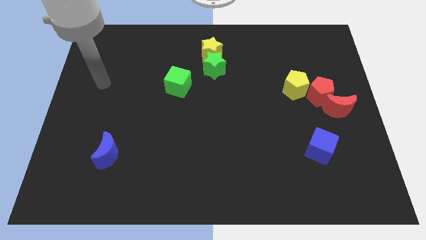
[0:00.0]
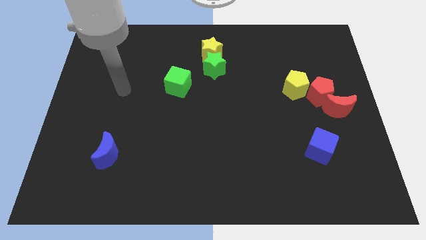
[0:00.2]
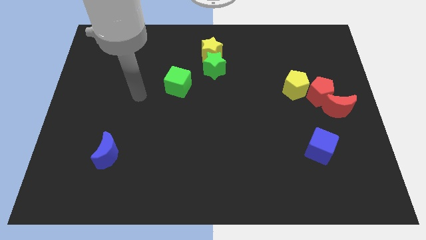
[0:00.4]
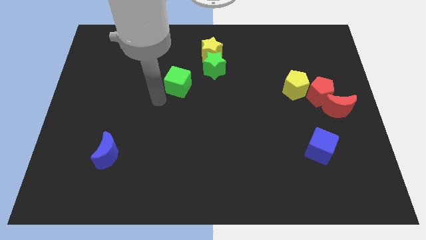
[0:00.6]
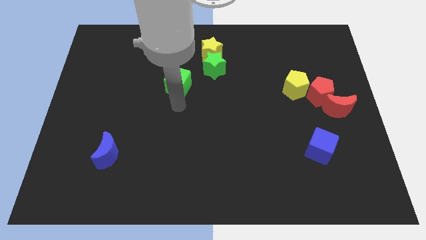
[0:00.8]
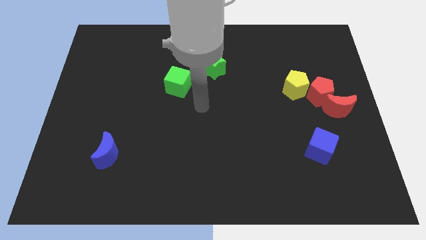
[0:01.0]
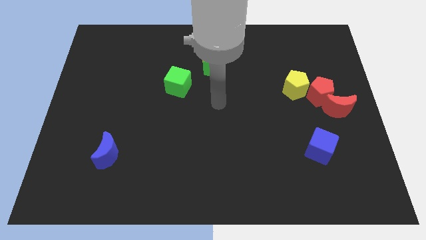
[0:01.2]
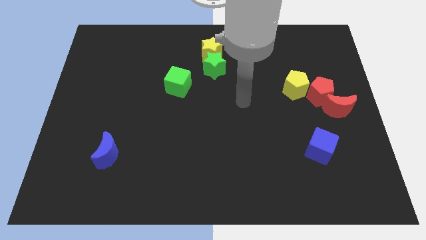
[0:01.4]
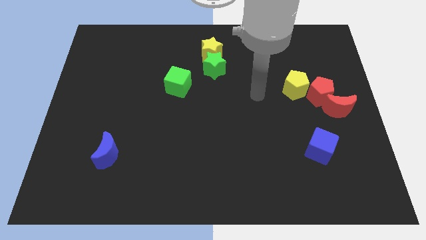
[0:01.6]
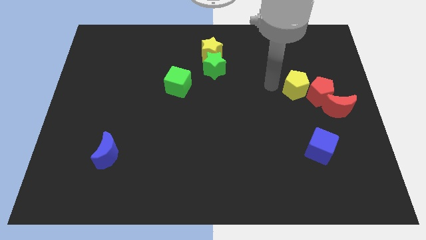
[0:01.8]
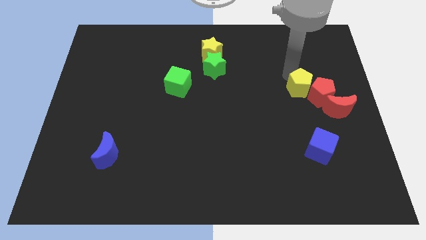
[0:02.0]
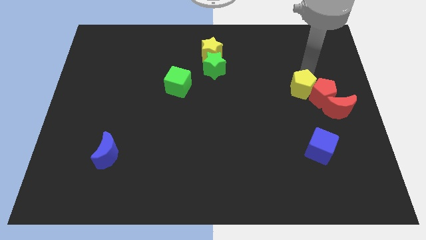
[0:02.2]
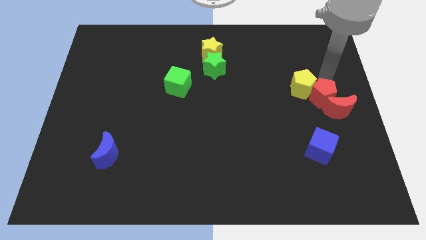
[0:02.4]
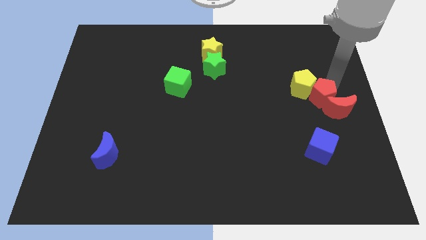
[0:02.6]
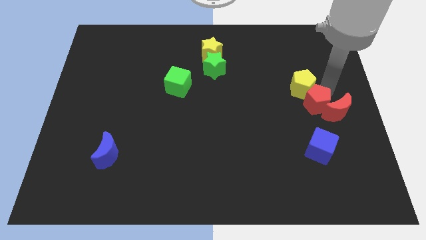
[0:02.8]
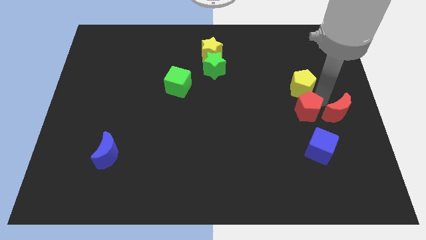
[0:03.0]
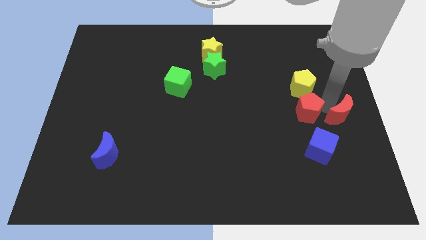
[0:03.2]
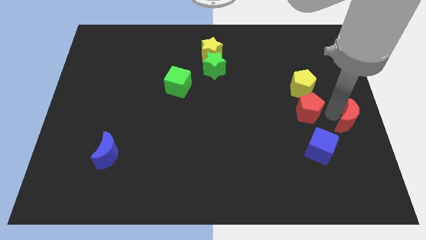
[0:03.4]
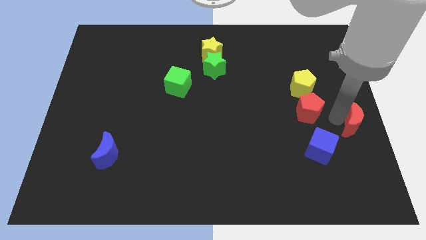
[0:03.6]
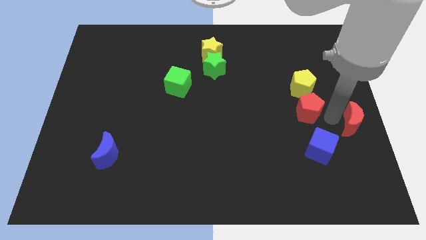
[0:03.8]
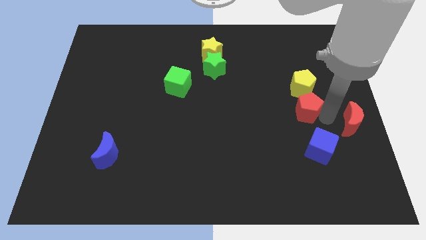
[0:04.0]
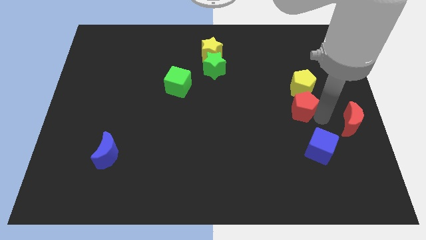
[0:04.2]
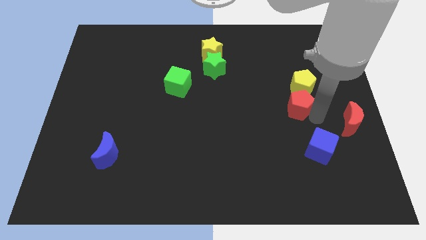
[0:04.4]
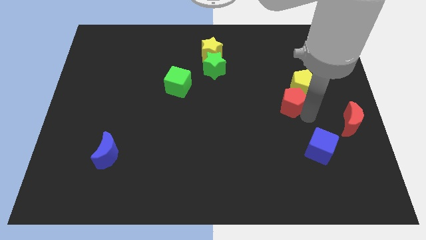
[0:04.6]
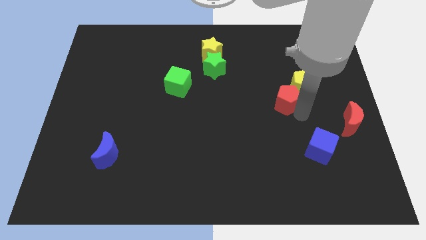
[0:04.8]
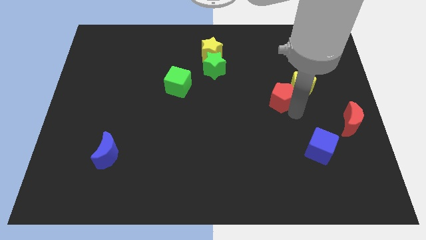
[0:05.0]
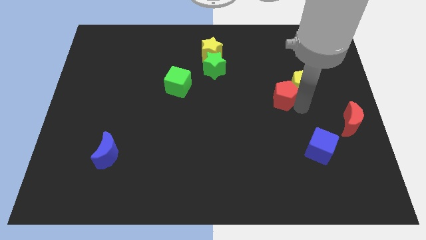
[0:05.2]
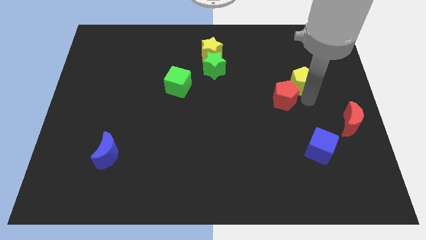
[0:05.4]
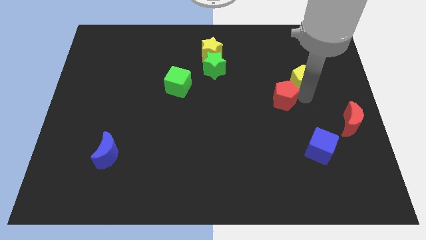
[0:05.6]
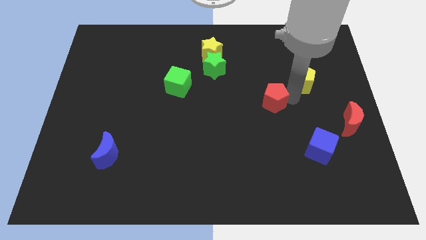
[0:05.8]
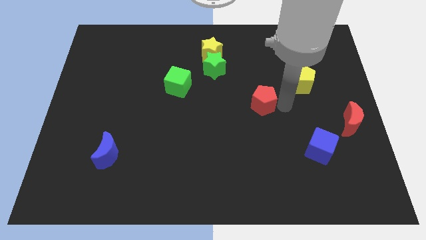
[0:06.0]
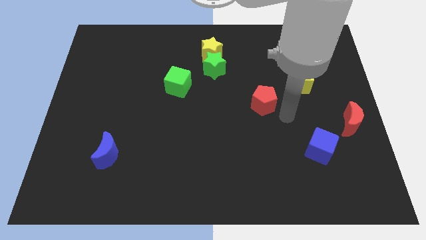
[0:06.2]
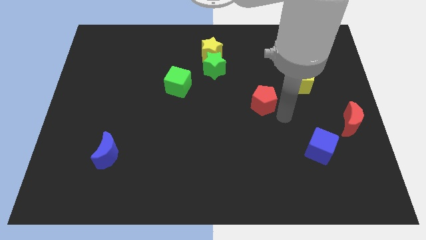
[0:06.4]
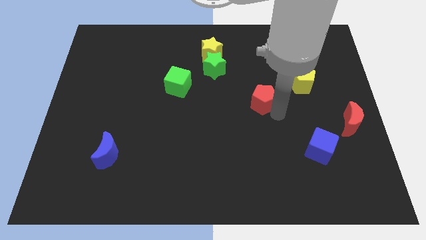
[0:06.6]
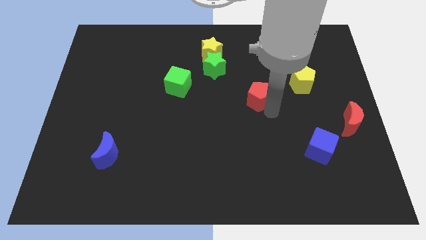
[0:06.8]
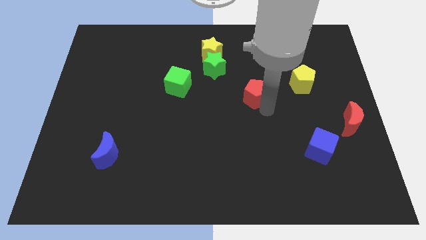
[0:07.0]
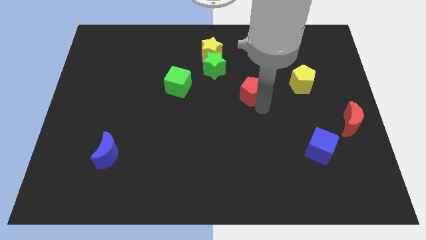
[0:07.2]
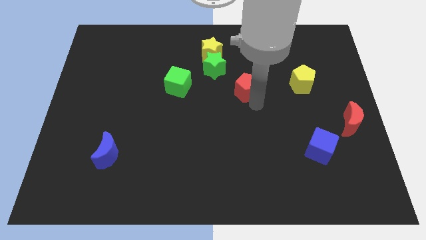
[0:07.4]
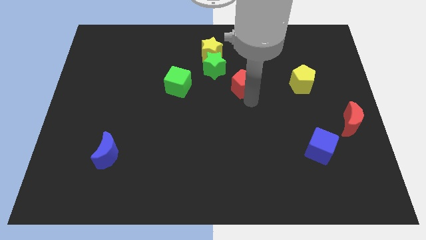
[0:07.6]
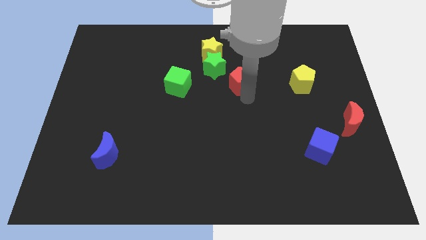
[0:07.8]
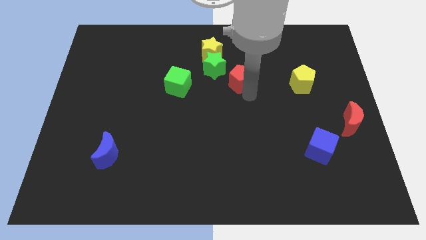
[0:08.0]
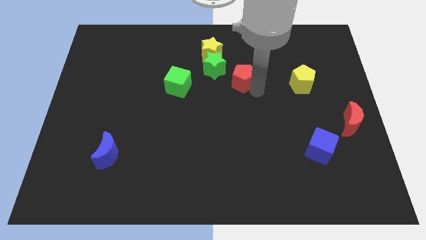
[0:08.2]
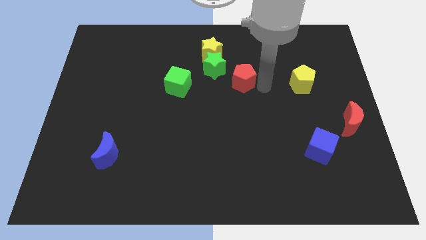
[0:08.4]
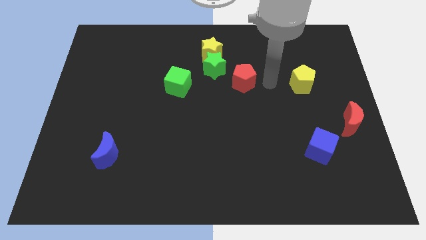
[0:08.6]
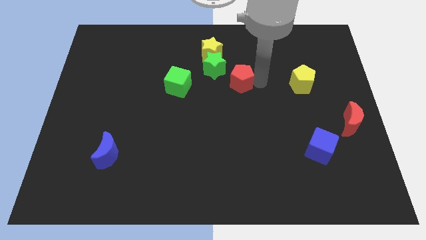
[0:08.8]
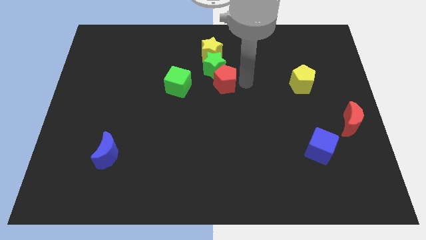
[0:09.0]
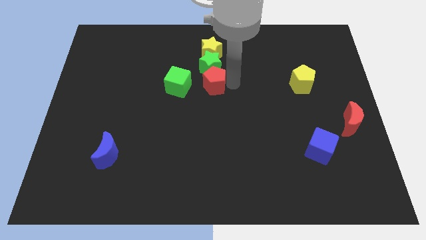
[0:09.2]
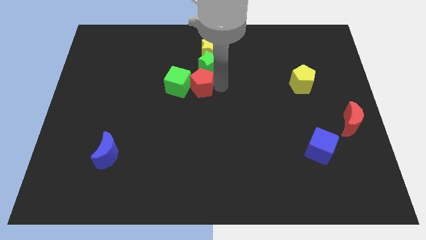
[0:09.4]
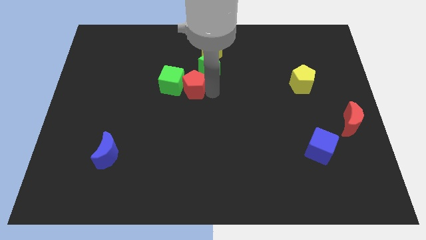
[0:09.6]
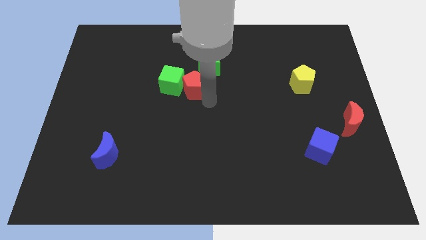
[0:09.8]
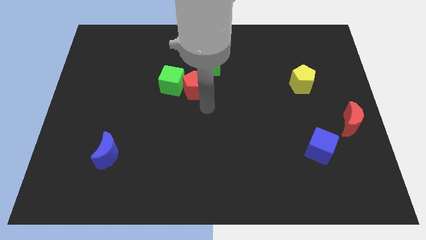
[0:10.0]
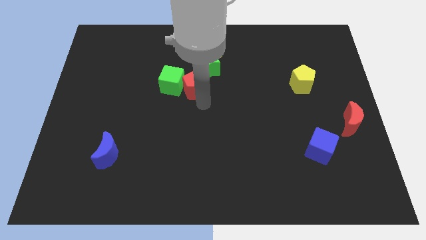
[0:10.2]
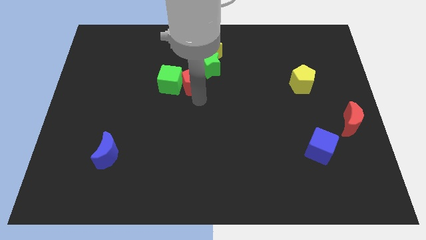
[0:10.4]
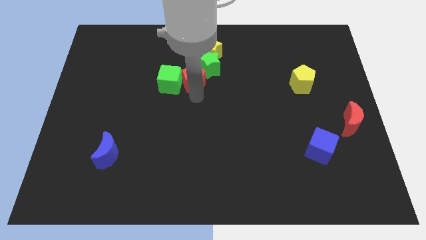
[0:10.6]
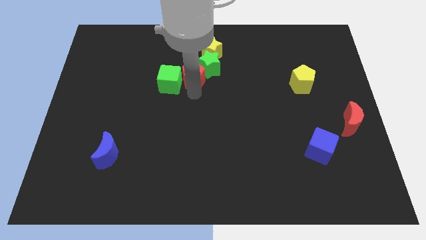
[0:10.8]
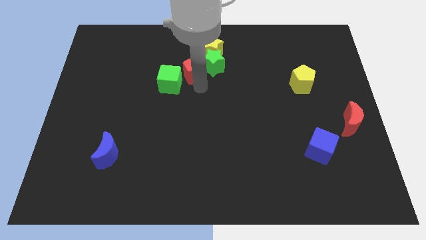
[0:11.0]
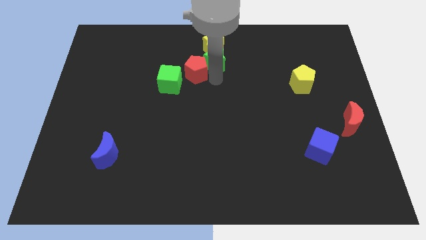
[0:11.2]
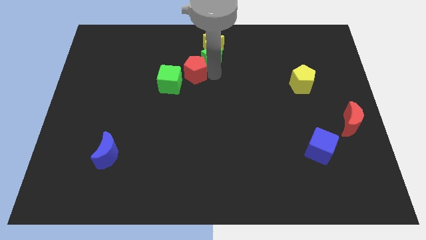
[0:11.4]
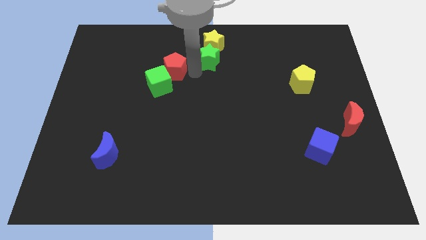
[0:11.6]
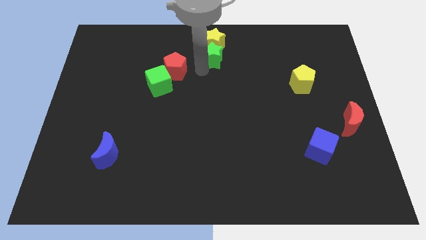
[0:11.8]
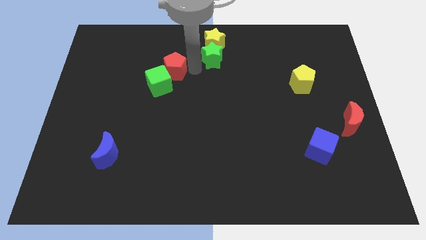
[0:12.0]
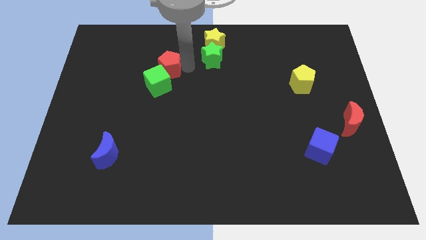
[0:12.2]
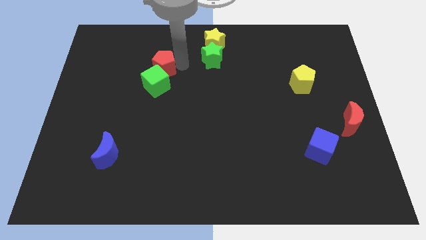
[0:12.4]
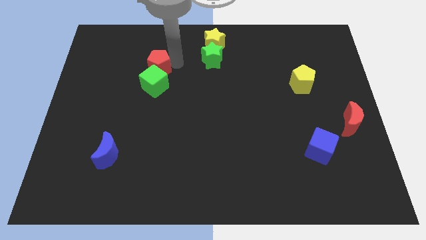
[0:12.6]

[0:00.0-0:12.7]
put the red pentagon diagonally up and to the left of the green cube

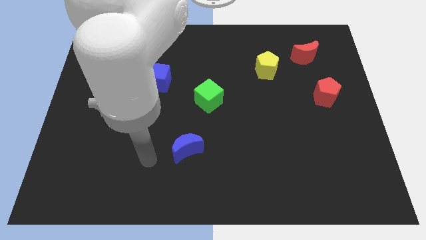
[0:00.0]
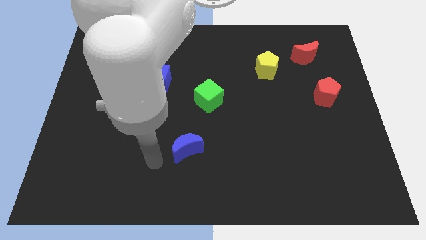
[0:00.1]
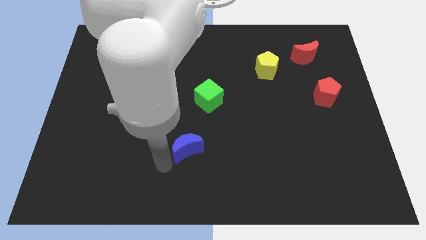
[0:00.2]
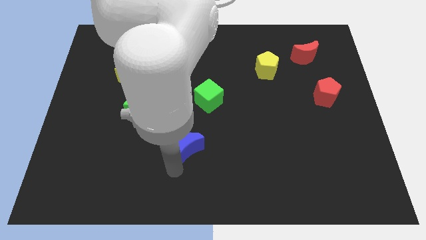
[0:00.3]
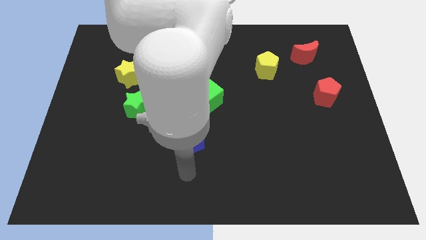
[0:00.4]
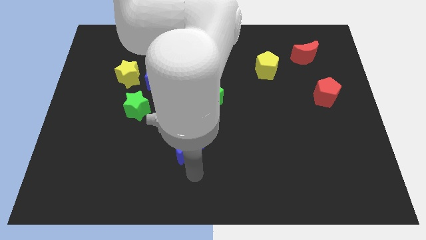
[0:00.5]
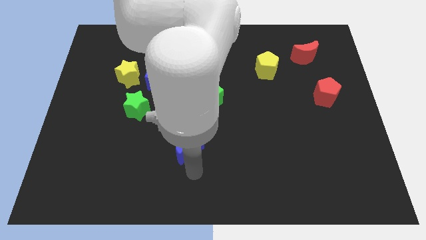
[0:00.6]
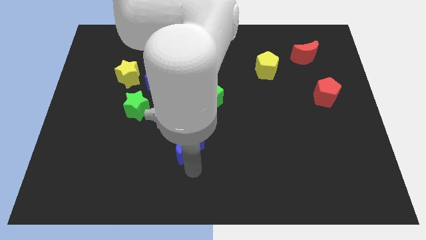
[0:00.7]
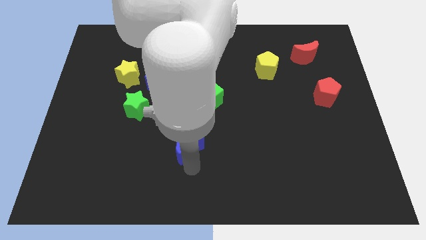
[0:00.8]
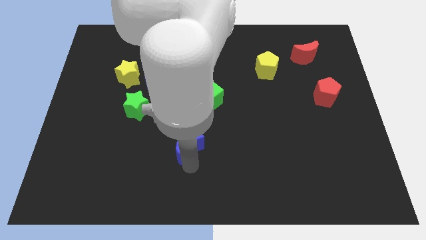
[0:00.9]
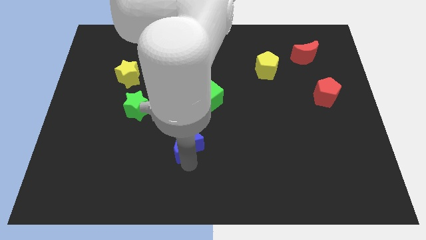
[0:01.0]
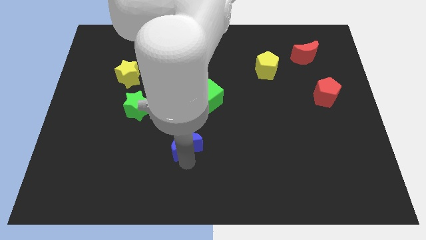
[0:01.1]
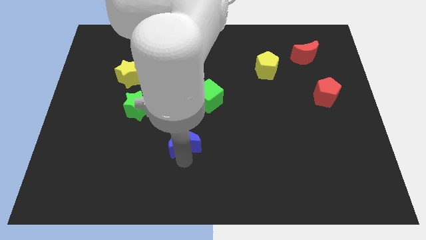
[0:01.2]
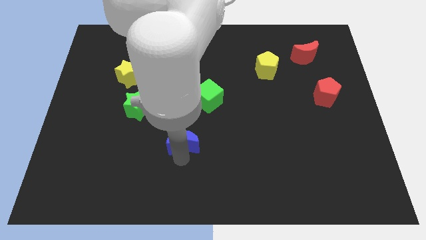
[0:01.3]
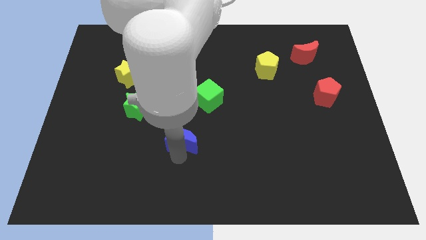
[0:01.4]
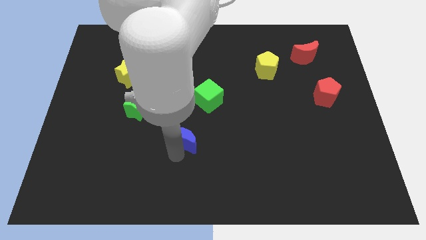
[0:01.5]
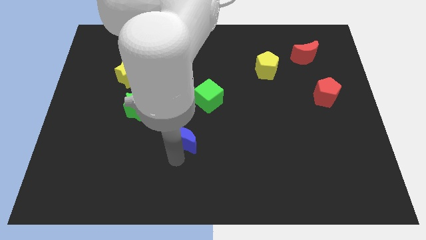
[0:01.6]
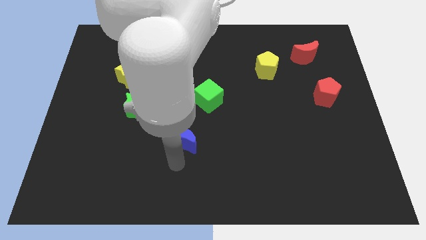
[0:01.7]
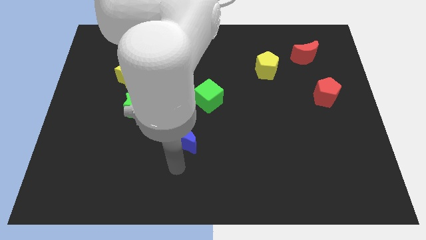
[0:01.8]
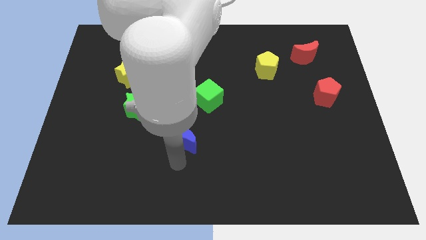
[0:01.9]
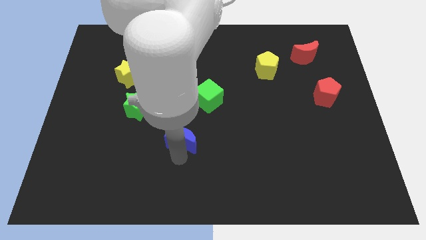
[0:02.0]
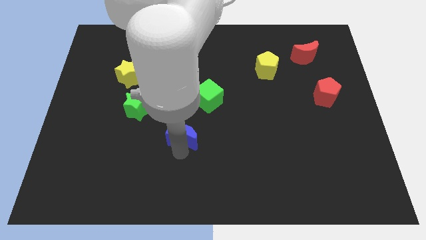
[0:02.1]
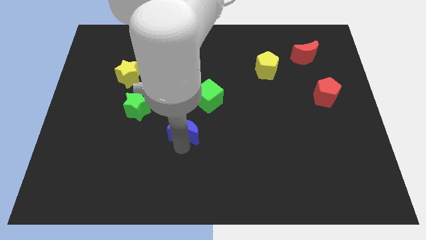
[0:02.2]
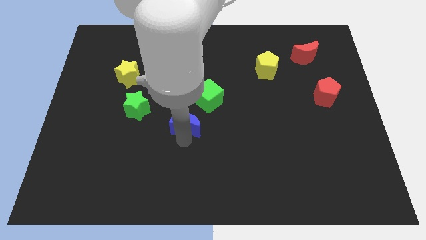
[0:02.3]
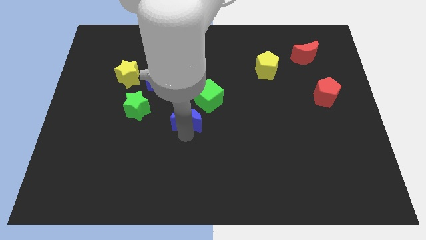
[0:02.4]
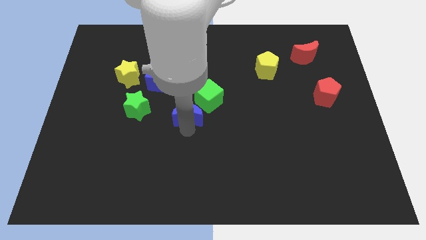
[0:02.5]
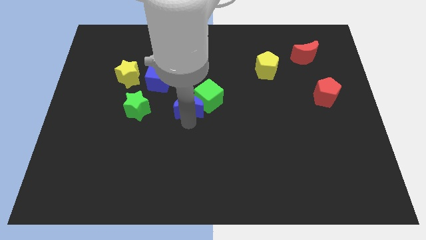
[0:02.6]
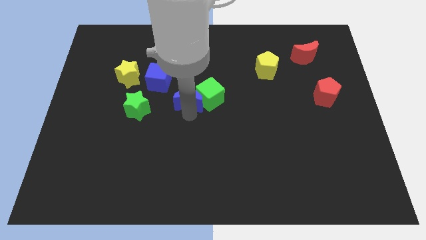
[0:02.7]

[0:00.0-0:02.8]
push the blue moon to the top left side of the green cube
